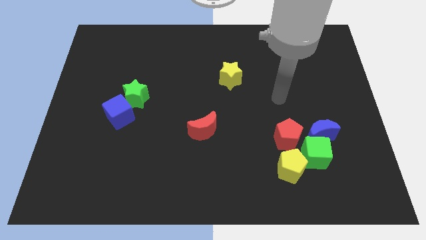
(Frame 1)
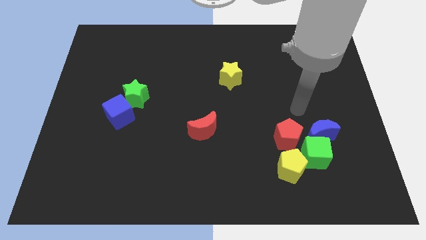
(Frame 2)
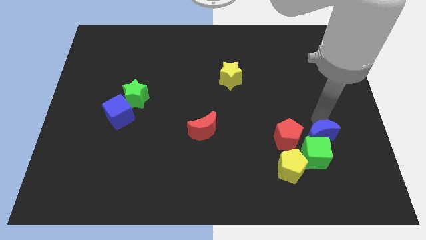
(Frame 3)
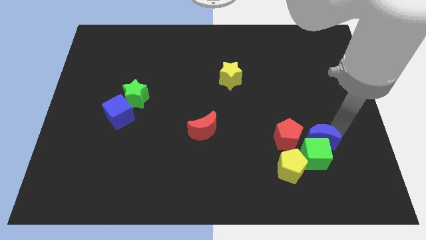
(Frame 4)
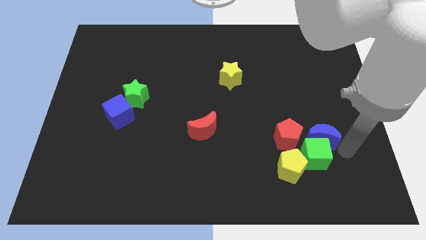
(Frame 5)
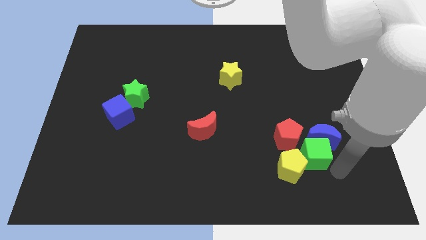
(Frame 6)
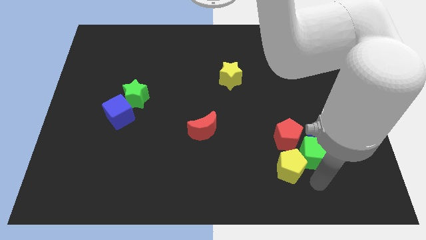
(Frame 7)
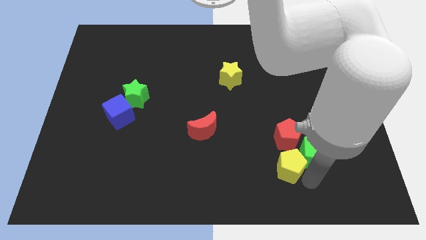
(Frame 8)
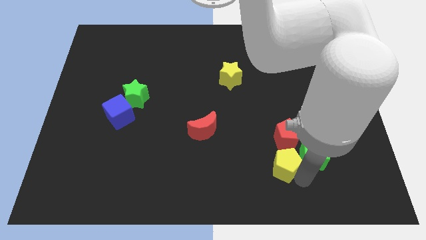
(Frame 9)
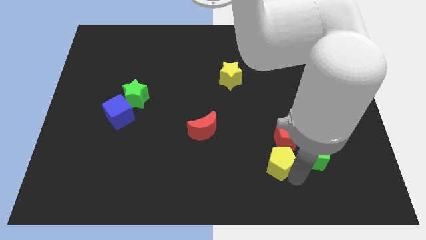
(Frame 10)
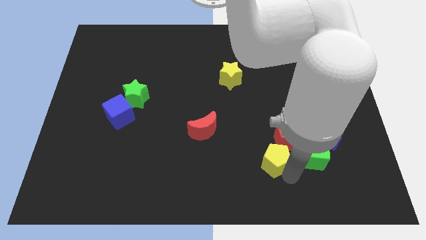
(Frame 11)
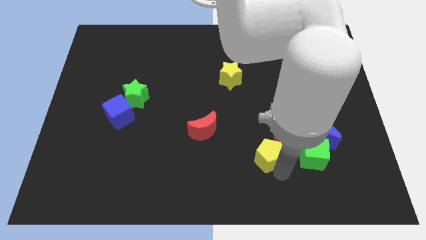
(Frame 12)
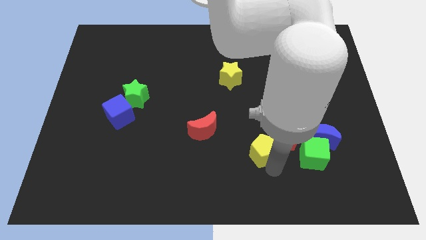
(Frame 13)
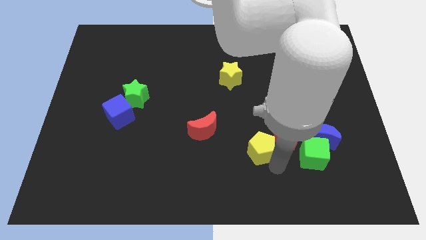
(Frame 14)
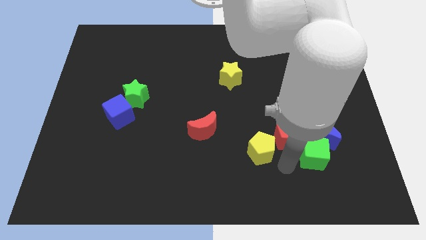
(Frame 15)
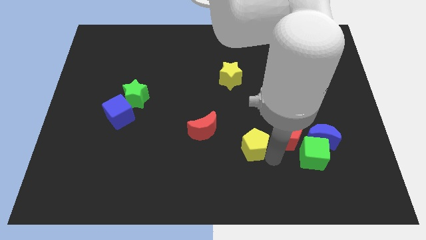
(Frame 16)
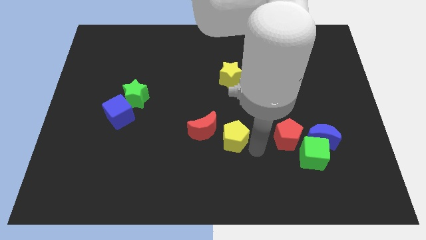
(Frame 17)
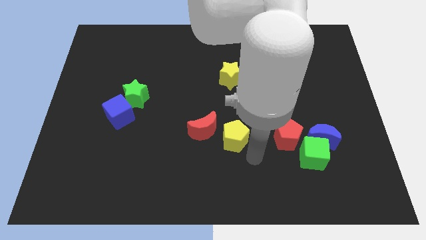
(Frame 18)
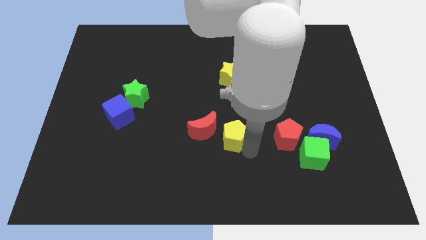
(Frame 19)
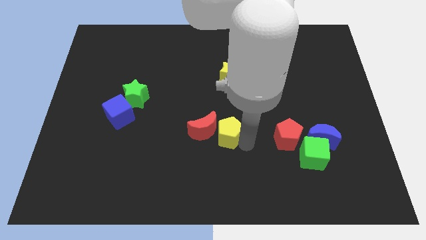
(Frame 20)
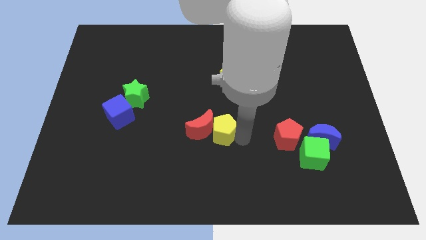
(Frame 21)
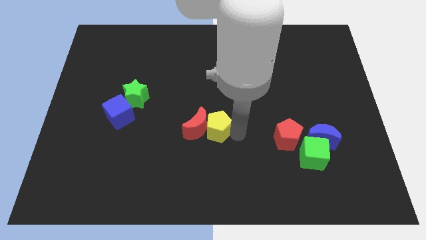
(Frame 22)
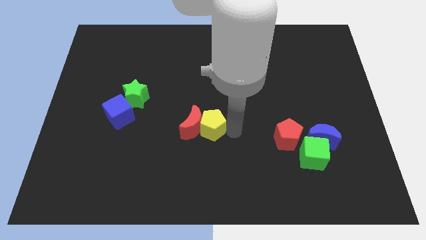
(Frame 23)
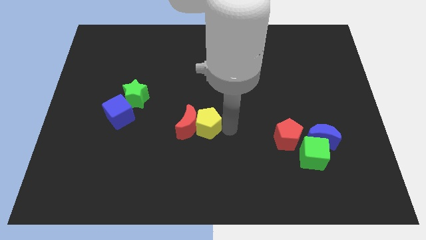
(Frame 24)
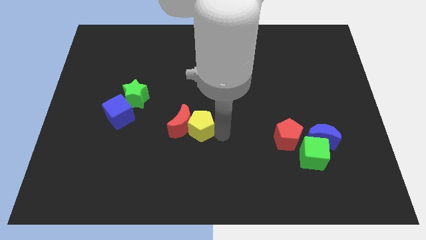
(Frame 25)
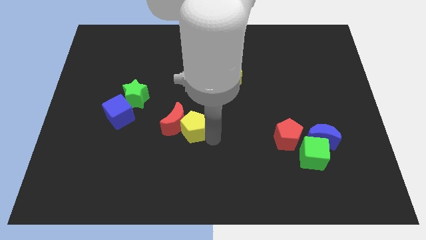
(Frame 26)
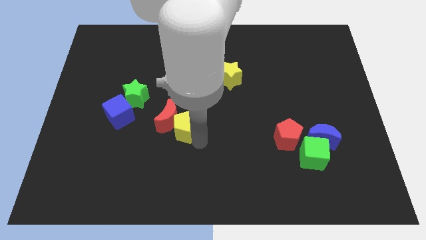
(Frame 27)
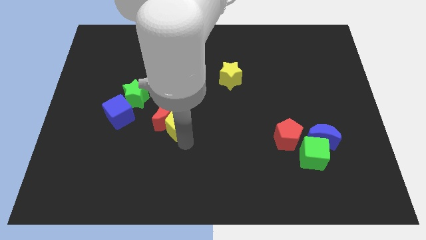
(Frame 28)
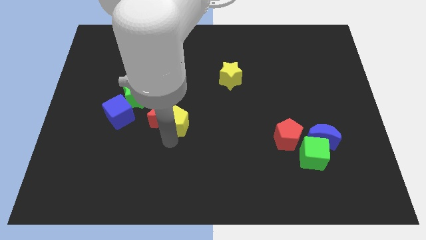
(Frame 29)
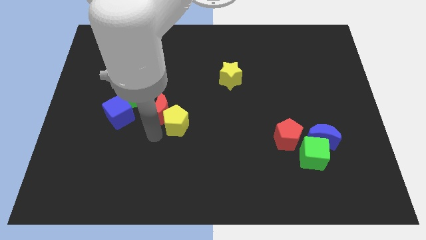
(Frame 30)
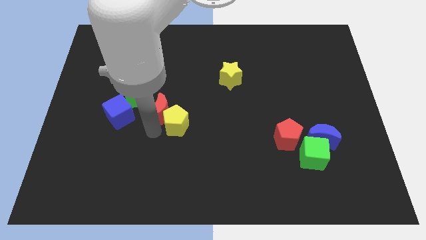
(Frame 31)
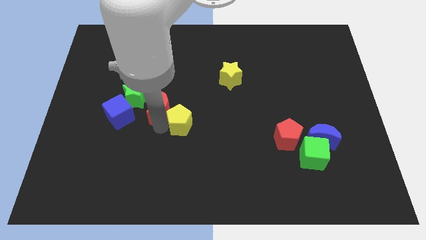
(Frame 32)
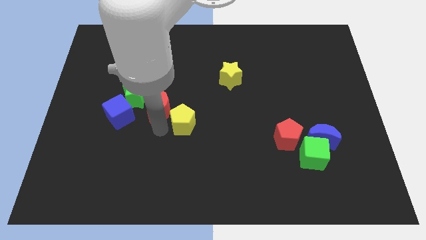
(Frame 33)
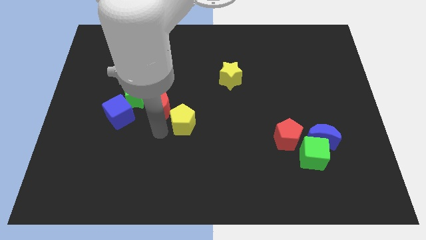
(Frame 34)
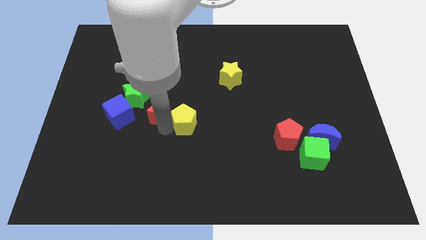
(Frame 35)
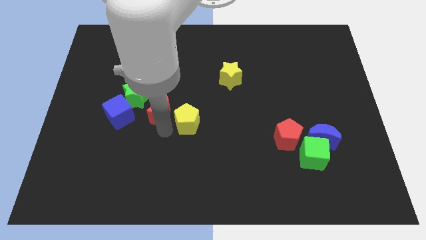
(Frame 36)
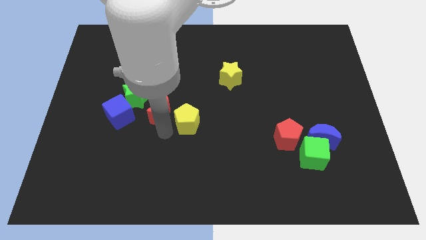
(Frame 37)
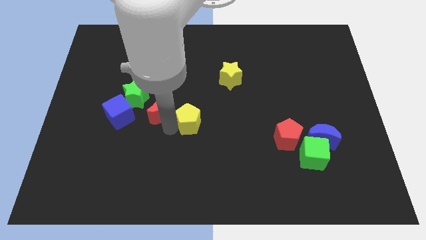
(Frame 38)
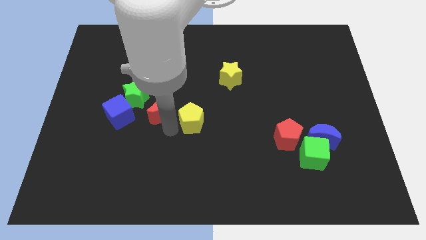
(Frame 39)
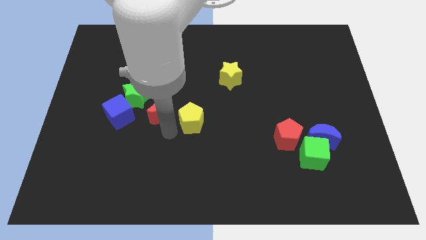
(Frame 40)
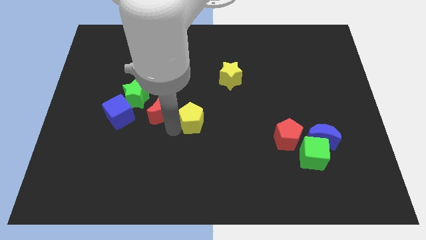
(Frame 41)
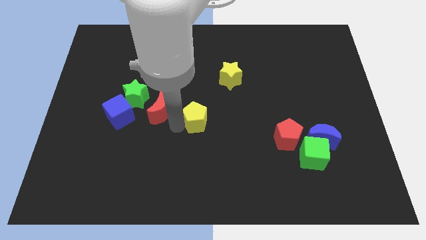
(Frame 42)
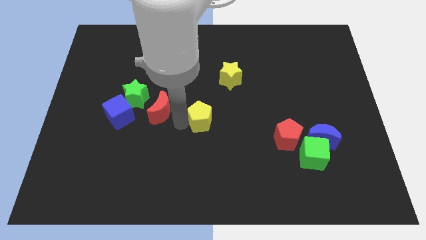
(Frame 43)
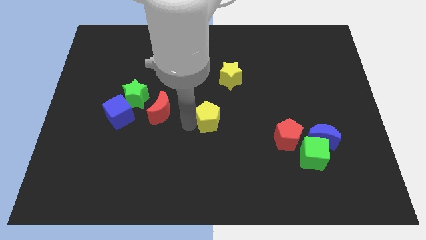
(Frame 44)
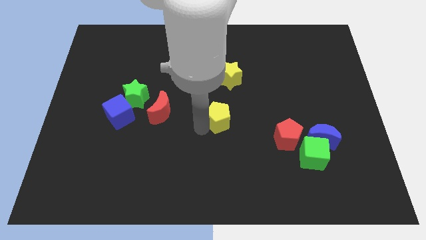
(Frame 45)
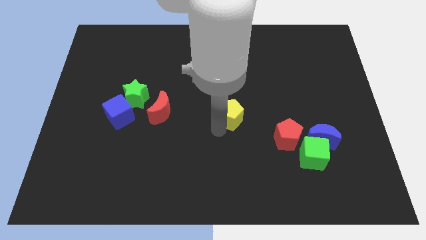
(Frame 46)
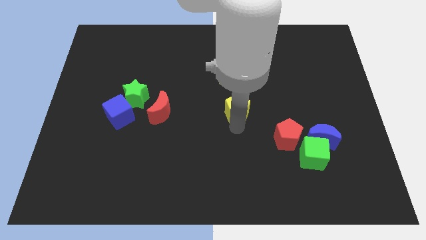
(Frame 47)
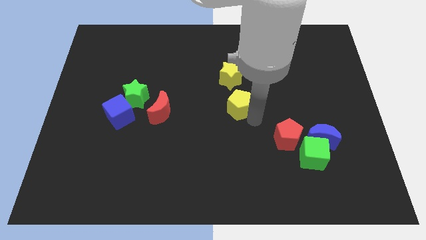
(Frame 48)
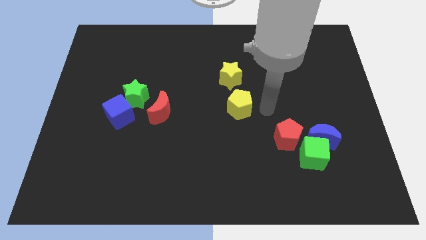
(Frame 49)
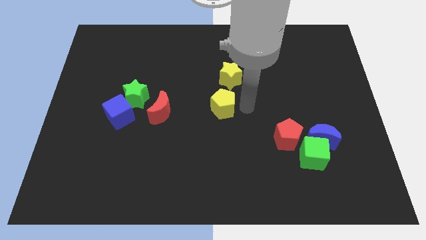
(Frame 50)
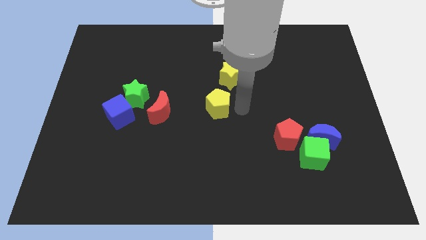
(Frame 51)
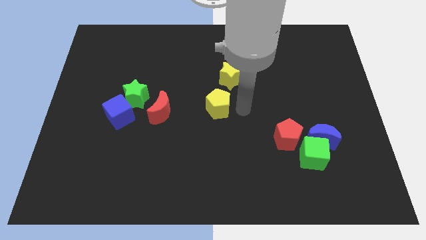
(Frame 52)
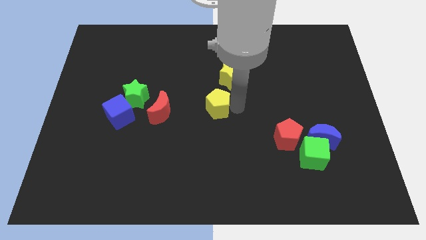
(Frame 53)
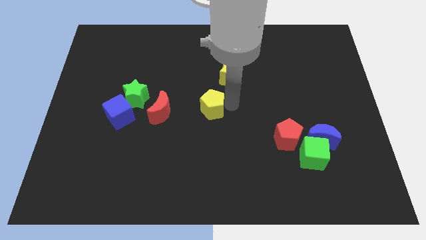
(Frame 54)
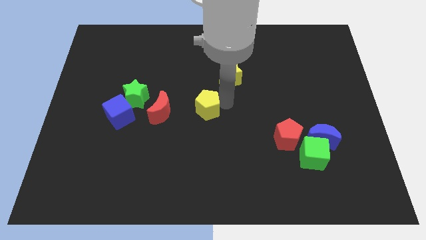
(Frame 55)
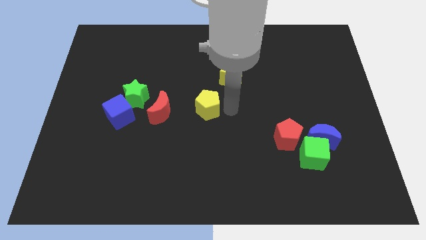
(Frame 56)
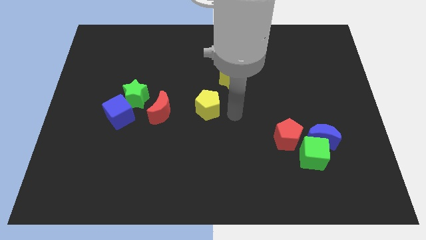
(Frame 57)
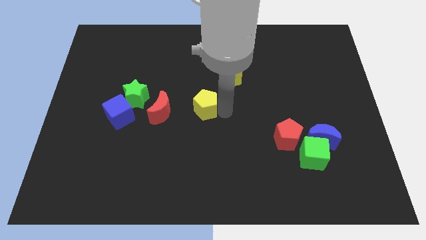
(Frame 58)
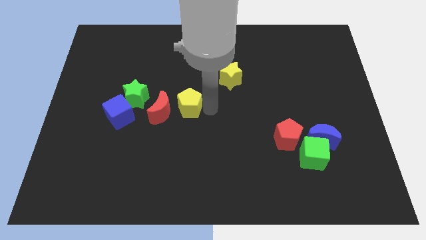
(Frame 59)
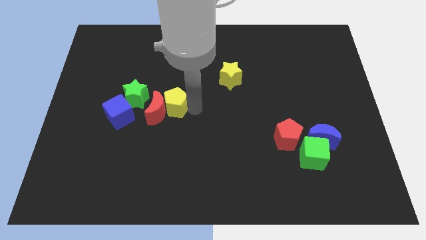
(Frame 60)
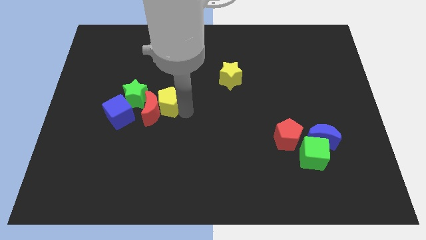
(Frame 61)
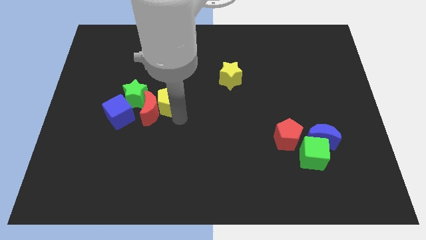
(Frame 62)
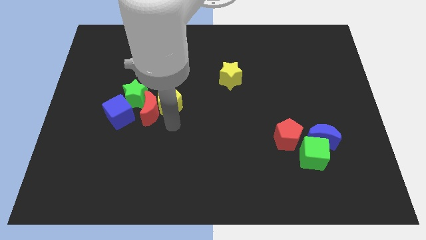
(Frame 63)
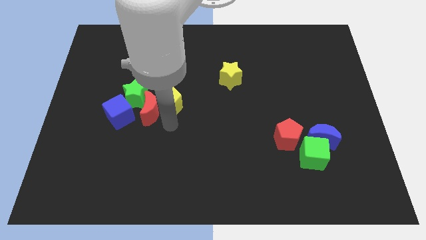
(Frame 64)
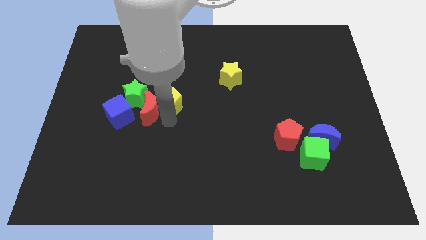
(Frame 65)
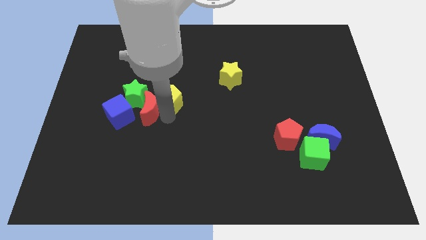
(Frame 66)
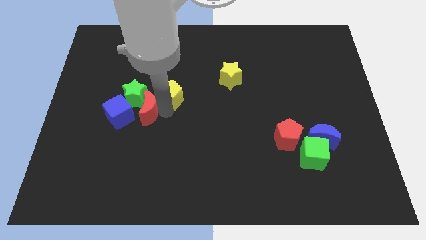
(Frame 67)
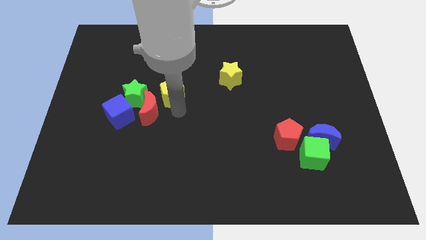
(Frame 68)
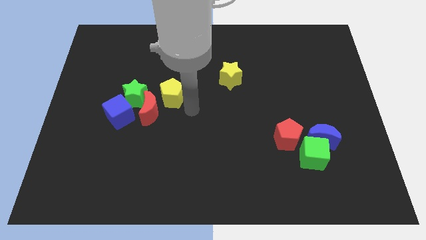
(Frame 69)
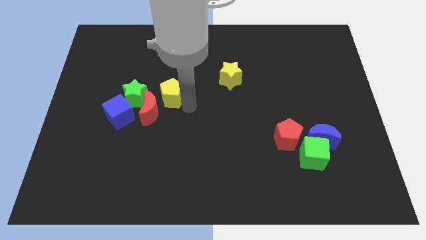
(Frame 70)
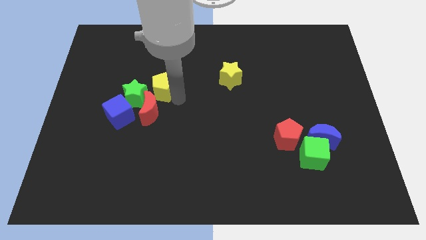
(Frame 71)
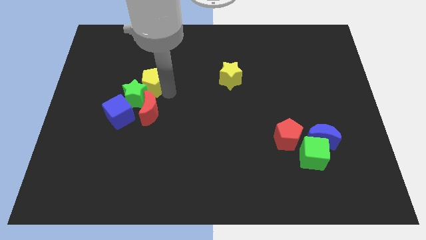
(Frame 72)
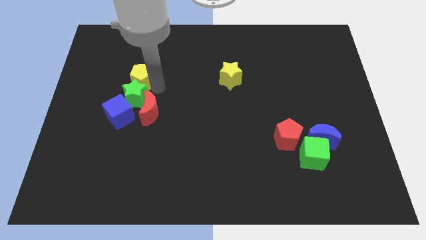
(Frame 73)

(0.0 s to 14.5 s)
push the yellow pentagon to the top left of the green star
